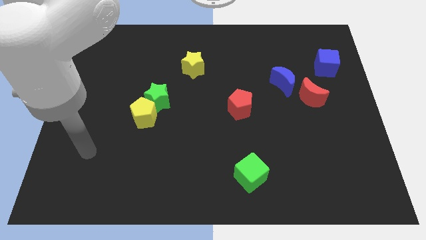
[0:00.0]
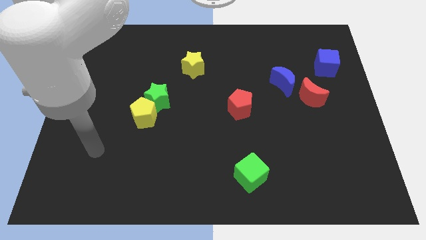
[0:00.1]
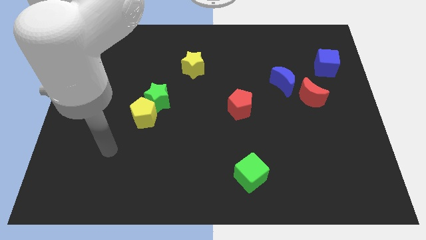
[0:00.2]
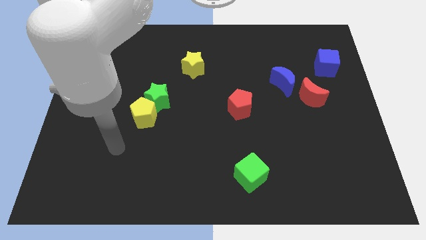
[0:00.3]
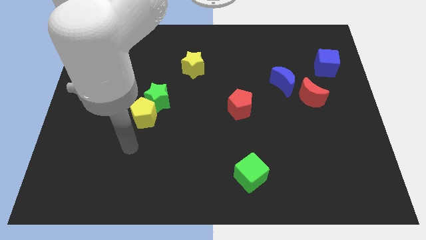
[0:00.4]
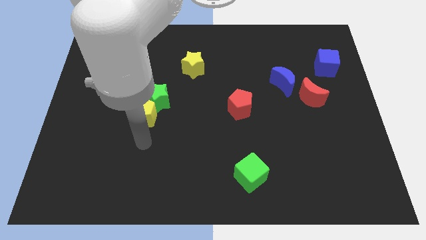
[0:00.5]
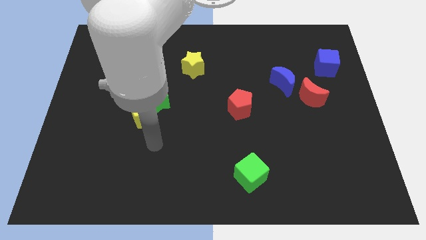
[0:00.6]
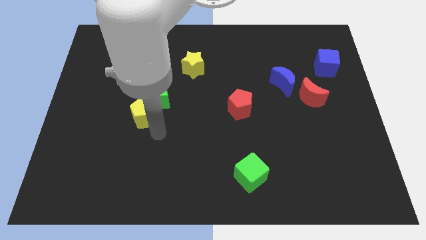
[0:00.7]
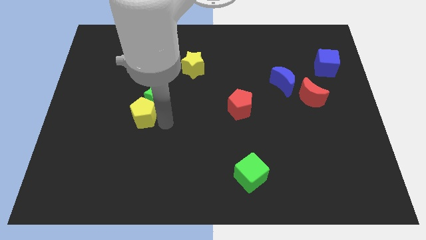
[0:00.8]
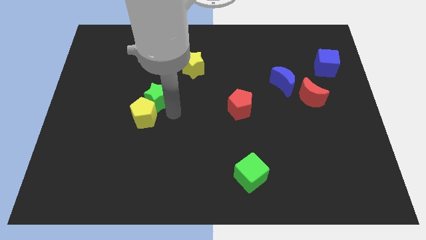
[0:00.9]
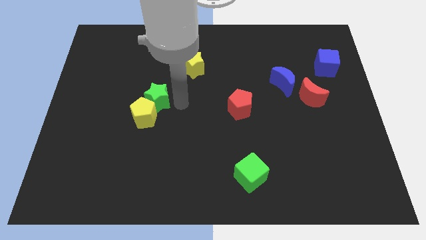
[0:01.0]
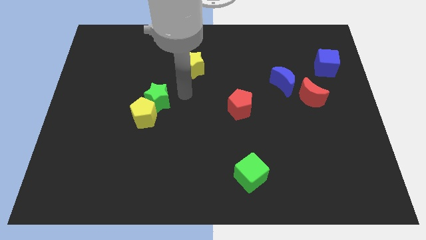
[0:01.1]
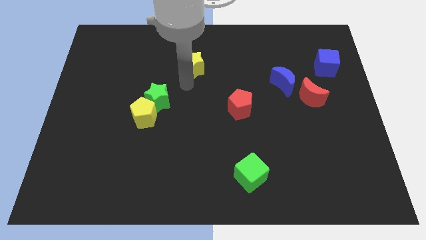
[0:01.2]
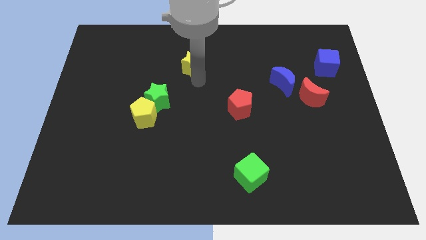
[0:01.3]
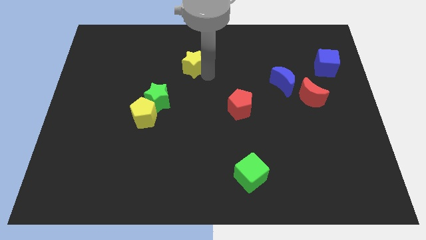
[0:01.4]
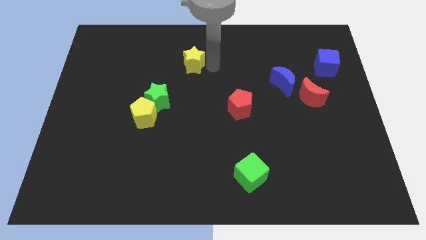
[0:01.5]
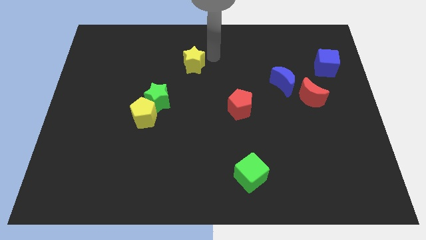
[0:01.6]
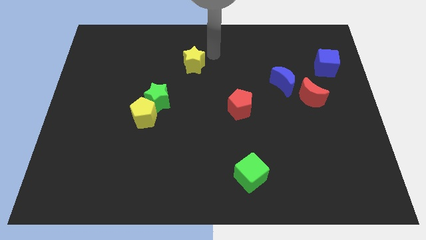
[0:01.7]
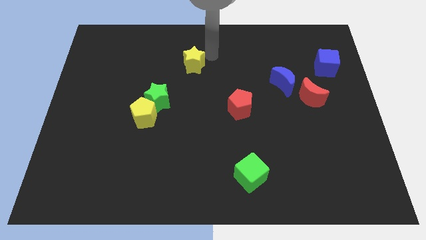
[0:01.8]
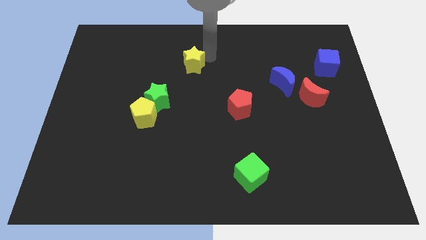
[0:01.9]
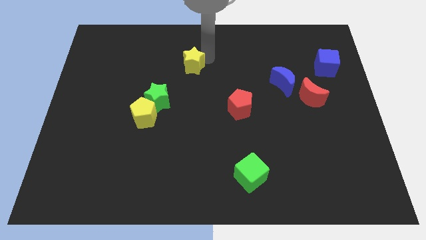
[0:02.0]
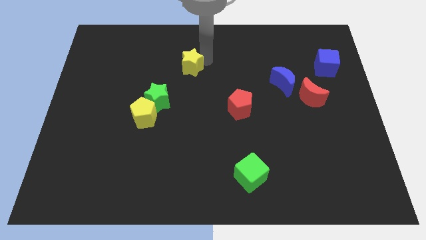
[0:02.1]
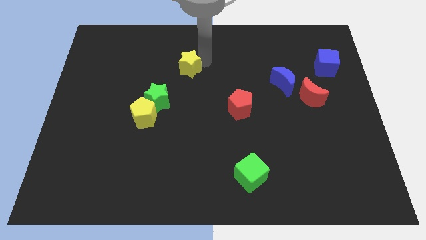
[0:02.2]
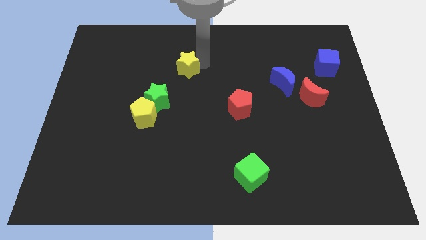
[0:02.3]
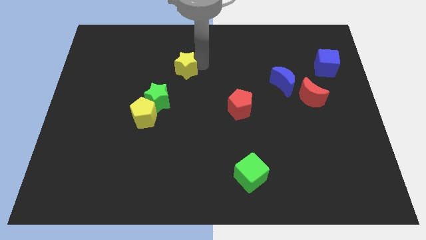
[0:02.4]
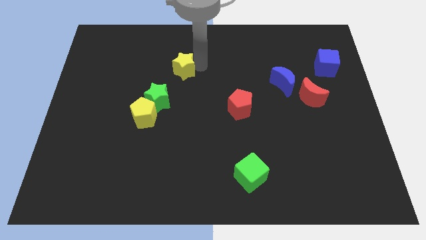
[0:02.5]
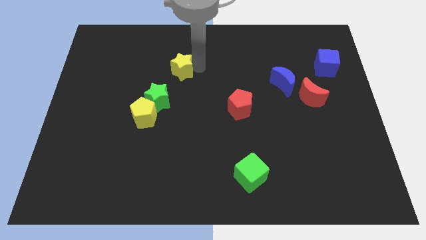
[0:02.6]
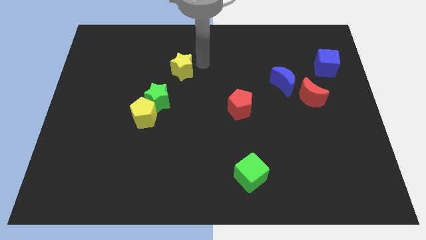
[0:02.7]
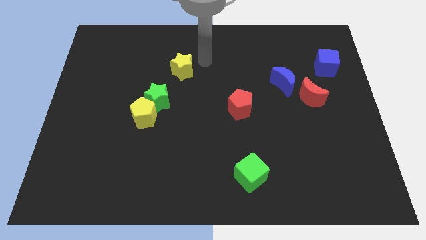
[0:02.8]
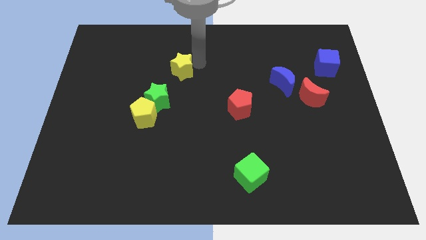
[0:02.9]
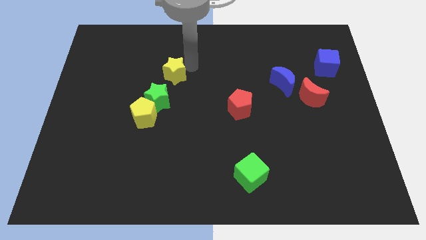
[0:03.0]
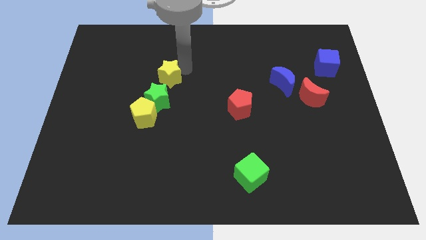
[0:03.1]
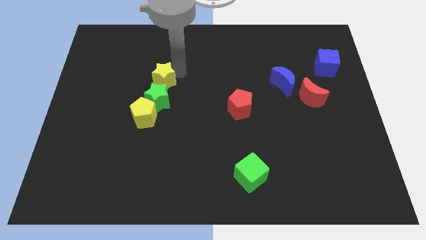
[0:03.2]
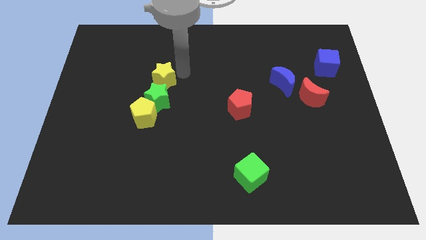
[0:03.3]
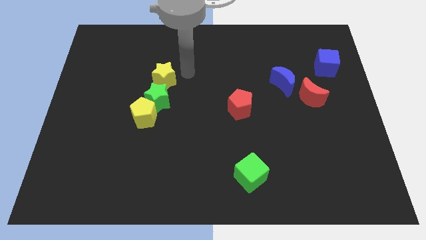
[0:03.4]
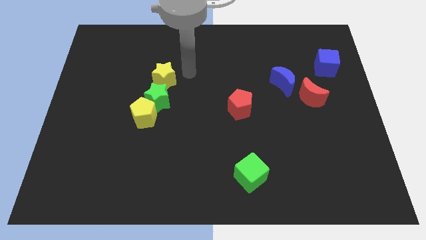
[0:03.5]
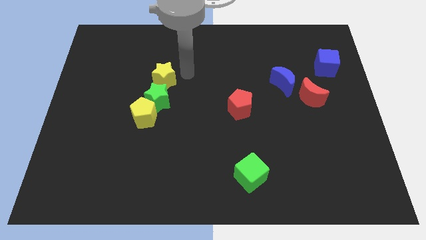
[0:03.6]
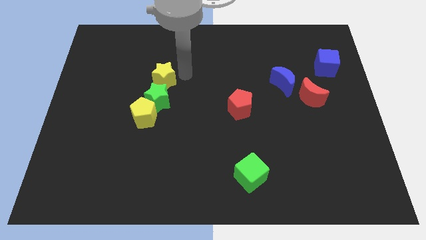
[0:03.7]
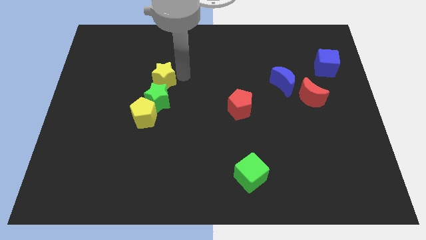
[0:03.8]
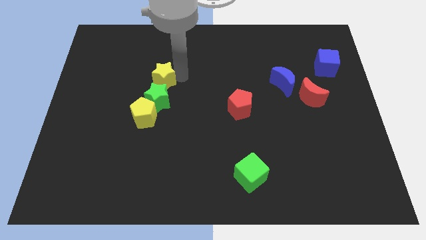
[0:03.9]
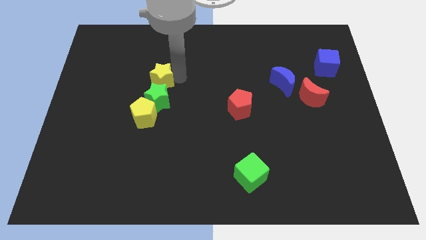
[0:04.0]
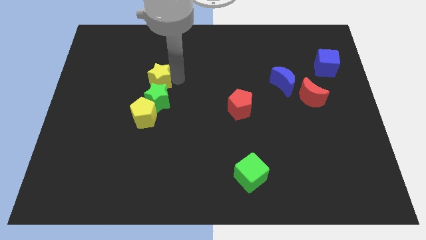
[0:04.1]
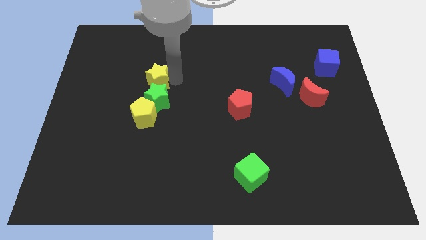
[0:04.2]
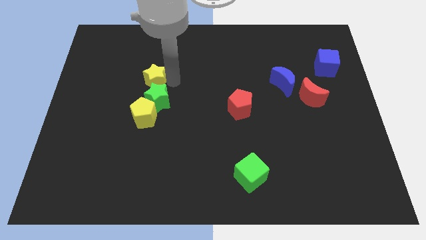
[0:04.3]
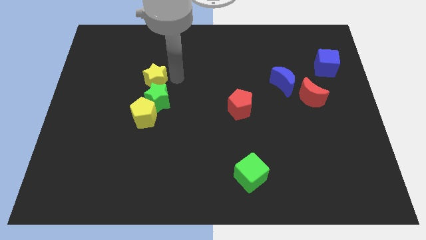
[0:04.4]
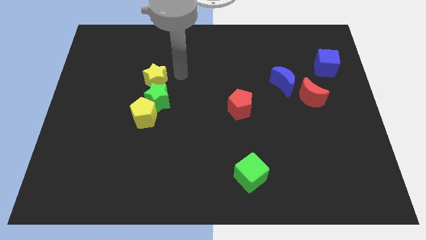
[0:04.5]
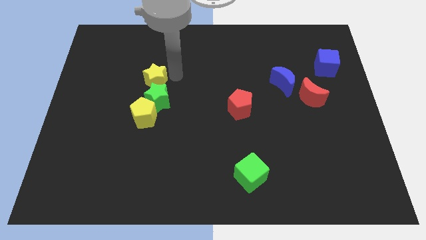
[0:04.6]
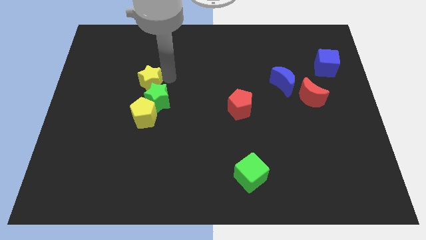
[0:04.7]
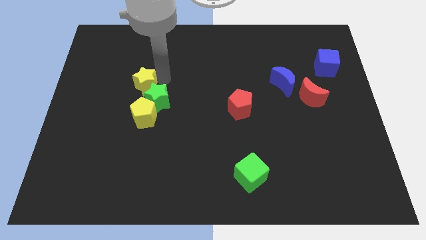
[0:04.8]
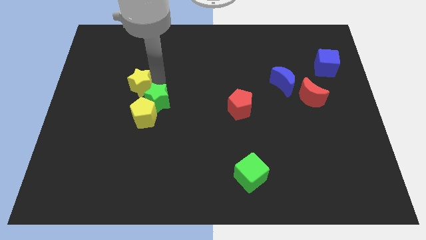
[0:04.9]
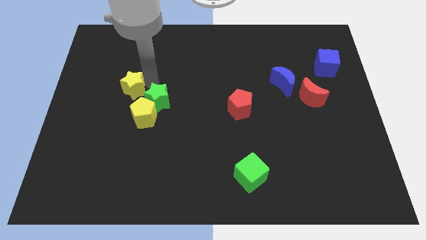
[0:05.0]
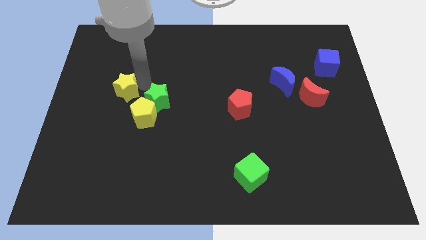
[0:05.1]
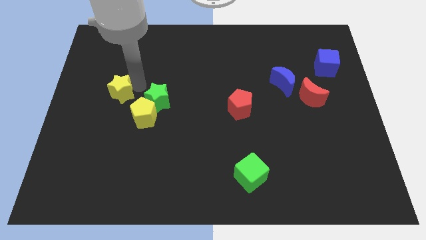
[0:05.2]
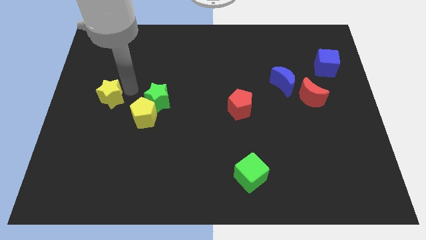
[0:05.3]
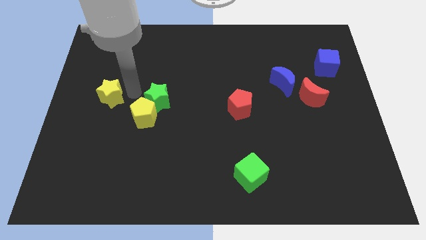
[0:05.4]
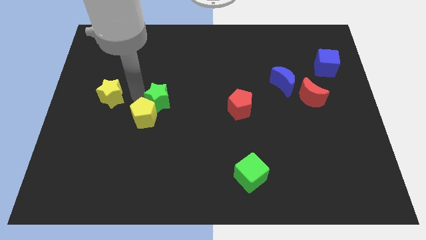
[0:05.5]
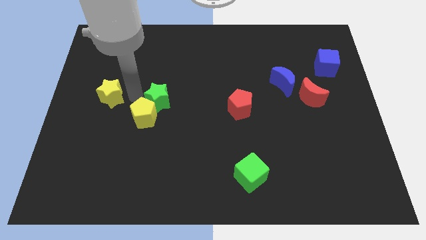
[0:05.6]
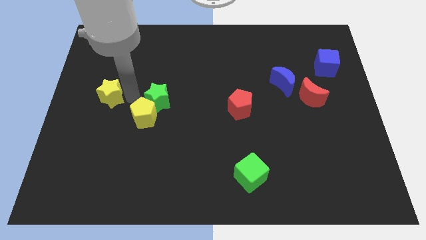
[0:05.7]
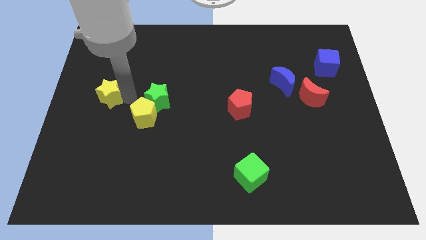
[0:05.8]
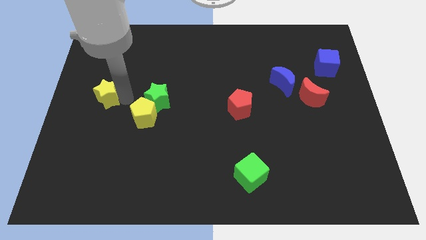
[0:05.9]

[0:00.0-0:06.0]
move the yellow star to the center left

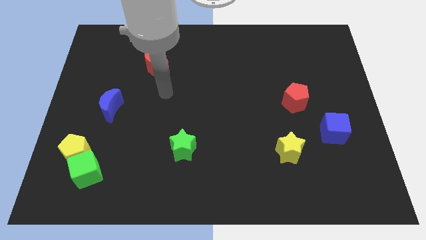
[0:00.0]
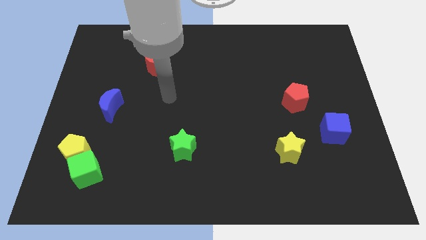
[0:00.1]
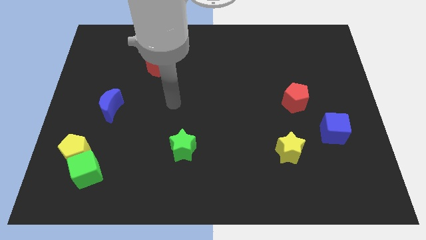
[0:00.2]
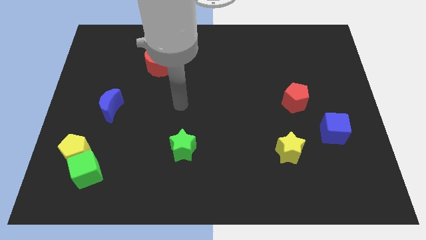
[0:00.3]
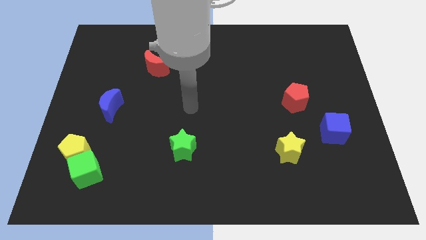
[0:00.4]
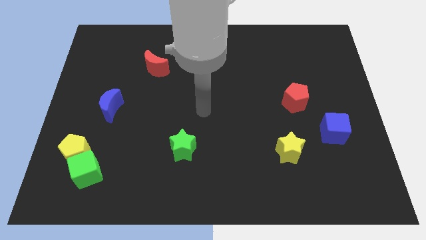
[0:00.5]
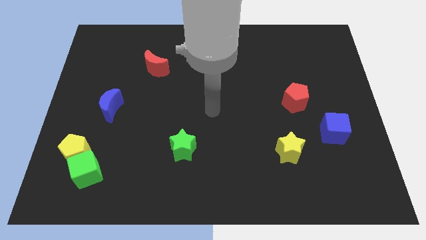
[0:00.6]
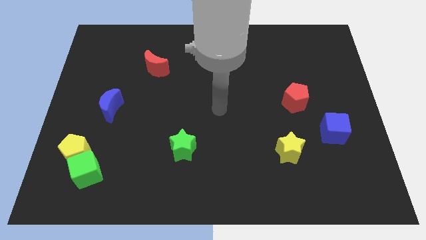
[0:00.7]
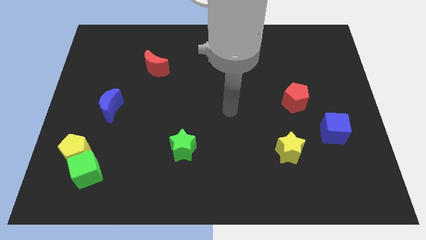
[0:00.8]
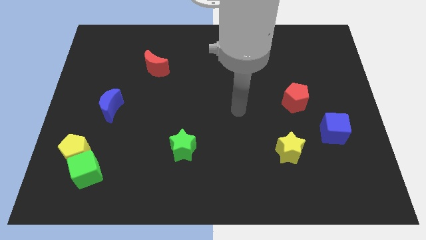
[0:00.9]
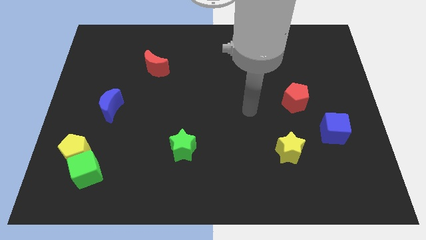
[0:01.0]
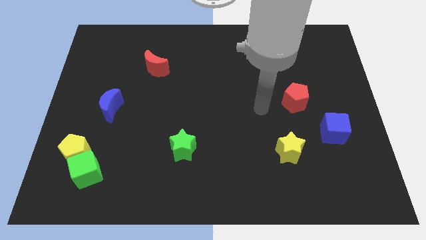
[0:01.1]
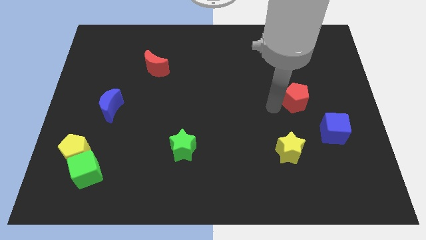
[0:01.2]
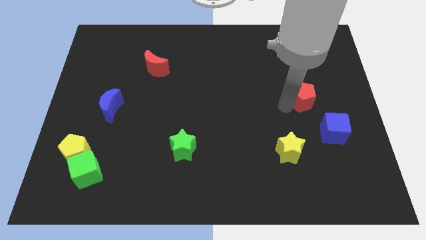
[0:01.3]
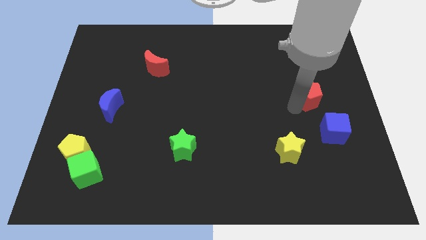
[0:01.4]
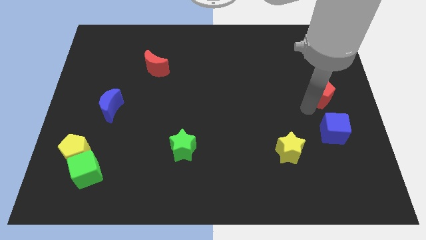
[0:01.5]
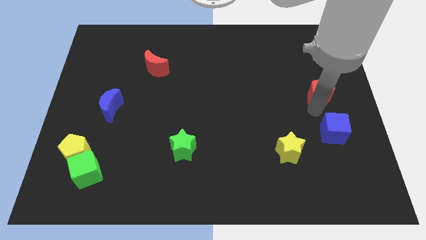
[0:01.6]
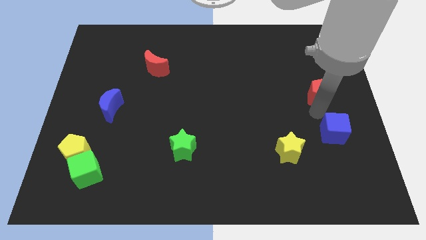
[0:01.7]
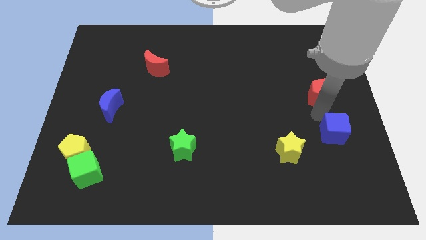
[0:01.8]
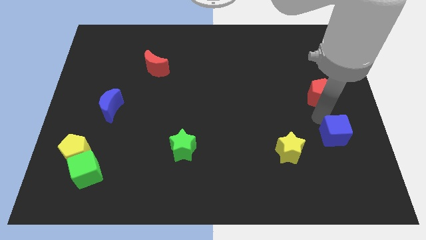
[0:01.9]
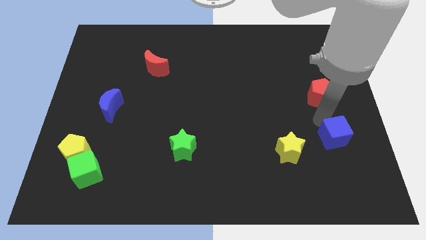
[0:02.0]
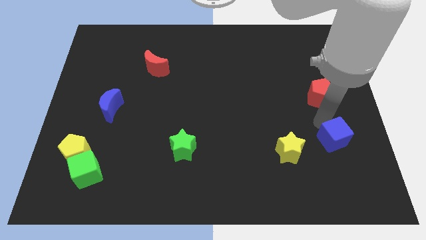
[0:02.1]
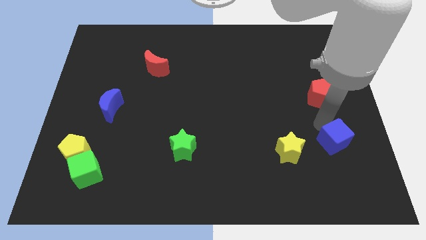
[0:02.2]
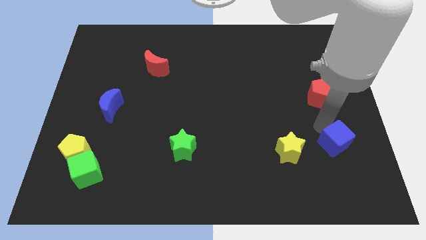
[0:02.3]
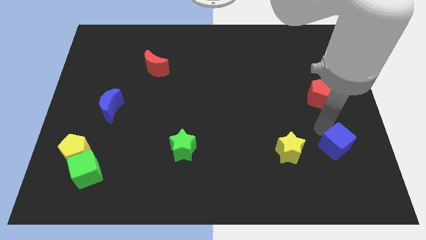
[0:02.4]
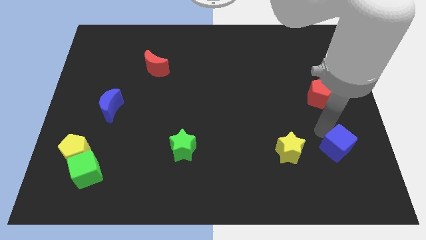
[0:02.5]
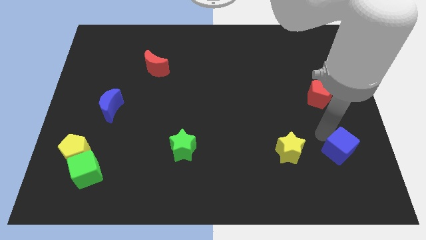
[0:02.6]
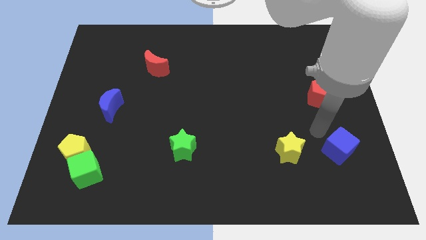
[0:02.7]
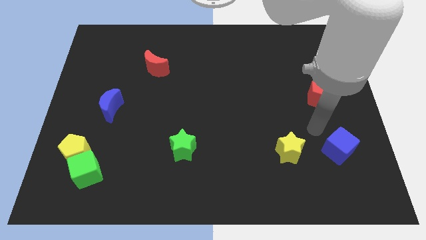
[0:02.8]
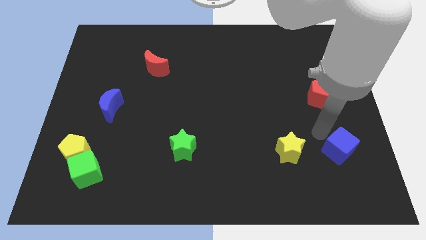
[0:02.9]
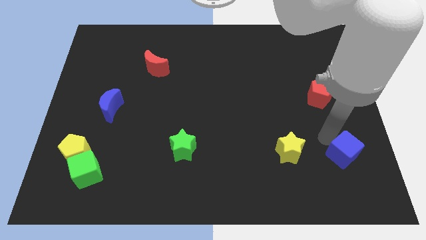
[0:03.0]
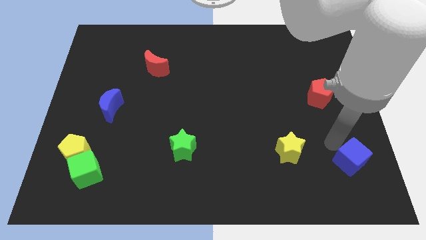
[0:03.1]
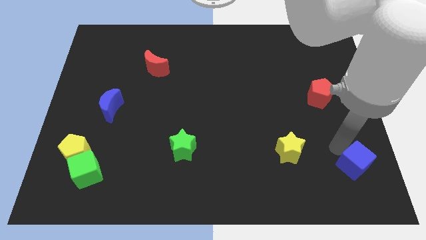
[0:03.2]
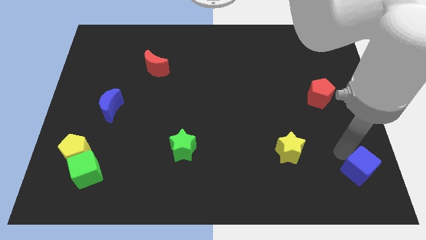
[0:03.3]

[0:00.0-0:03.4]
slide the blue cube to the bottom right corner
